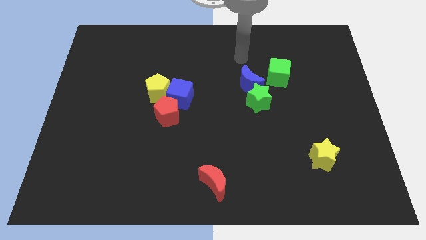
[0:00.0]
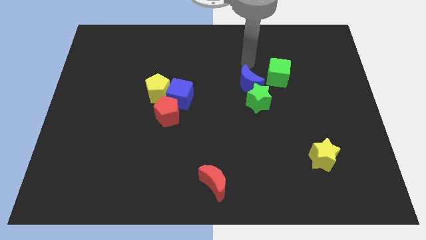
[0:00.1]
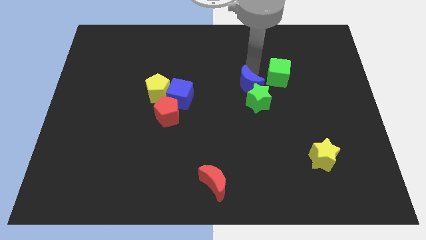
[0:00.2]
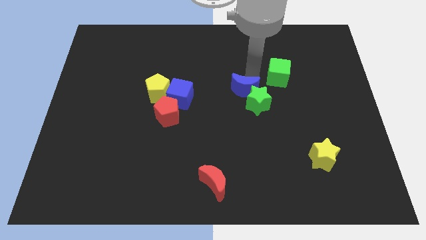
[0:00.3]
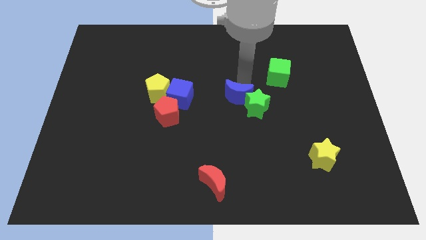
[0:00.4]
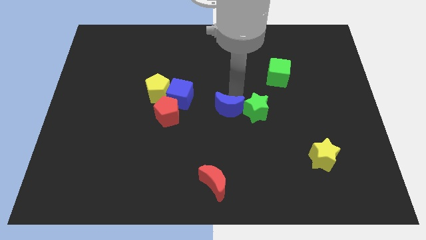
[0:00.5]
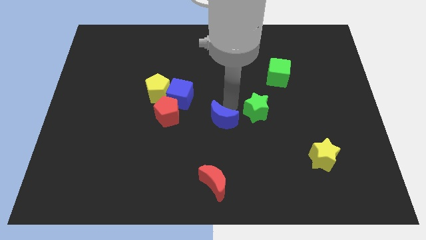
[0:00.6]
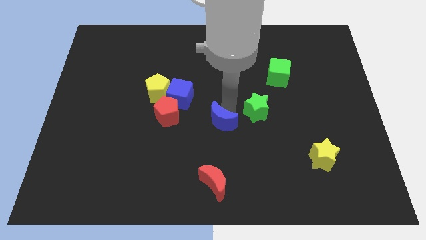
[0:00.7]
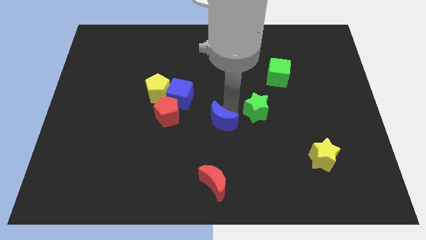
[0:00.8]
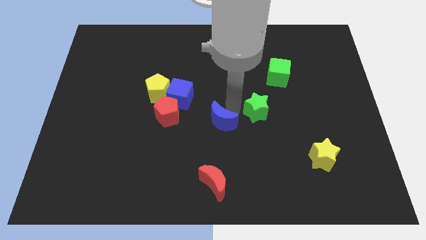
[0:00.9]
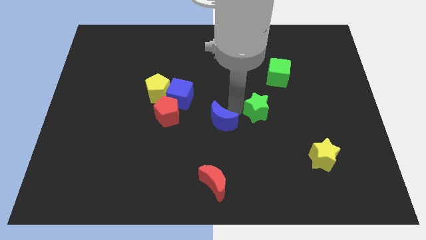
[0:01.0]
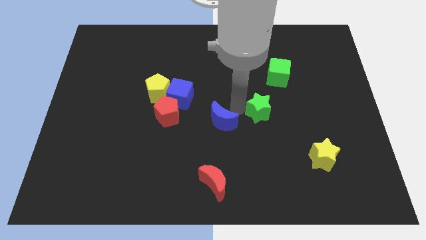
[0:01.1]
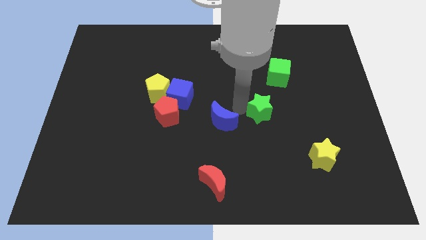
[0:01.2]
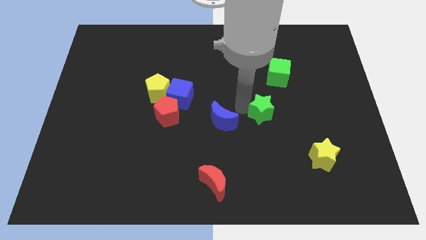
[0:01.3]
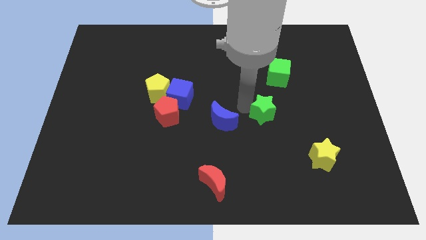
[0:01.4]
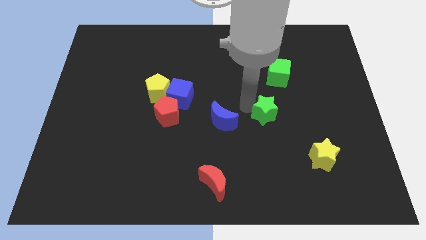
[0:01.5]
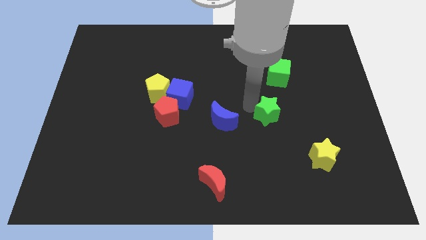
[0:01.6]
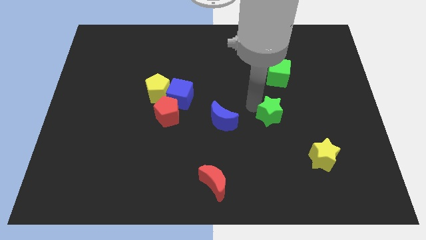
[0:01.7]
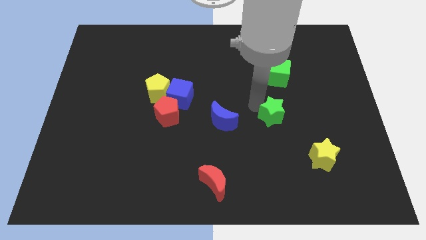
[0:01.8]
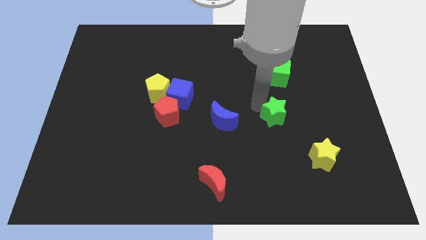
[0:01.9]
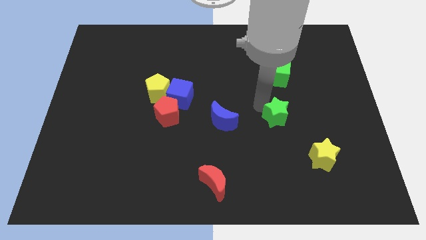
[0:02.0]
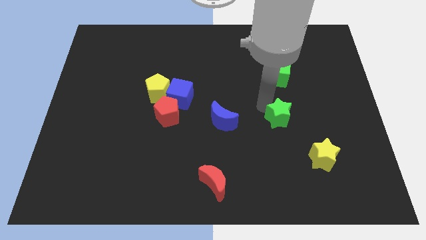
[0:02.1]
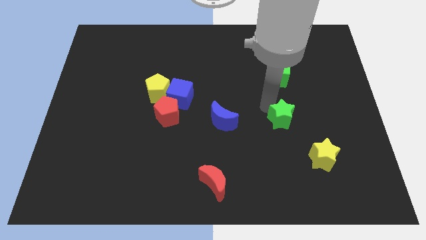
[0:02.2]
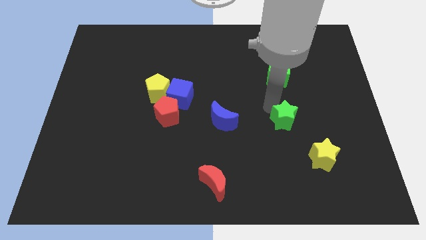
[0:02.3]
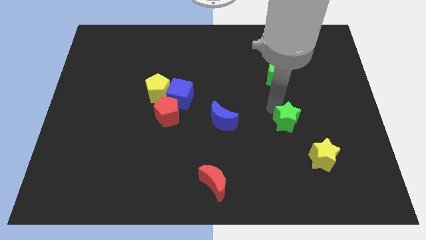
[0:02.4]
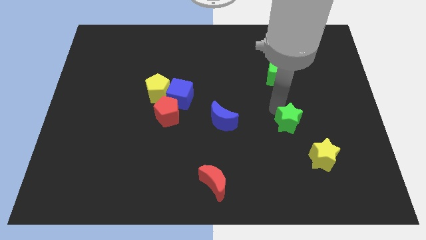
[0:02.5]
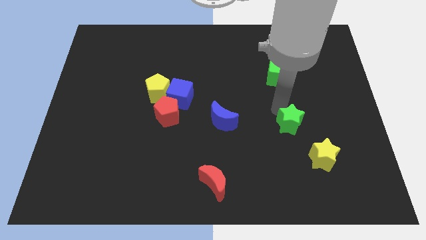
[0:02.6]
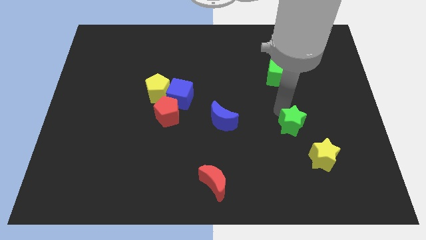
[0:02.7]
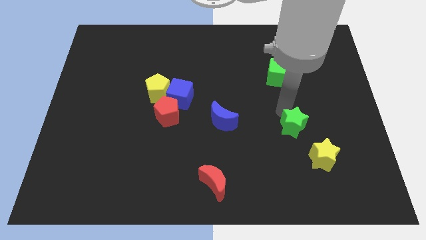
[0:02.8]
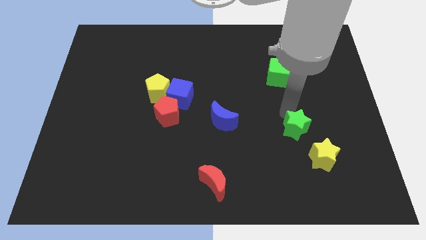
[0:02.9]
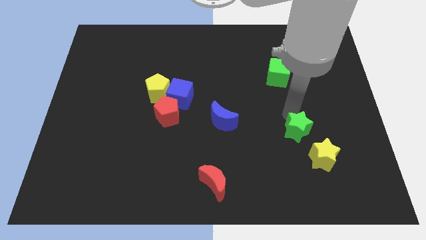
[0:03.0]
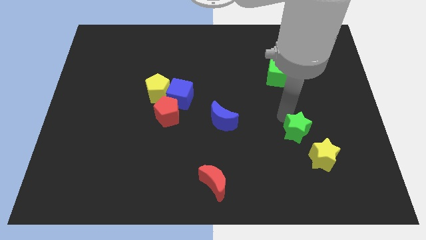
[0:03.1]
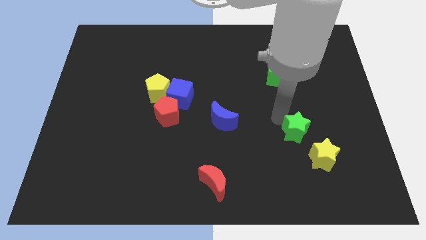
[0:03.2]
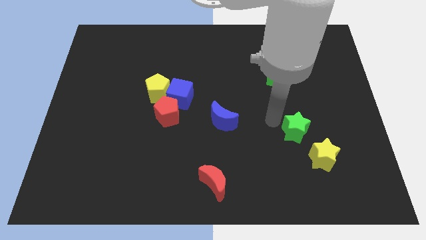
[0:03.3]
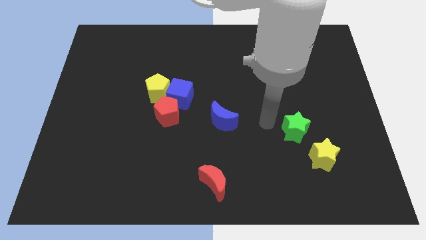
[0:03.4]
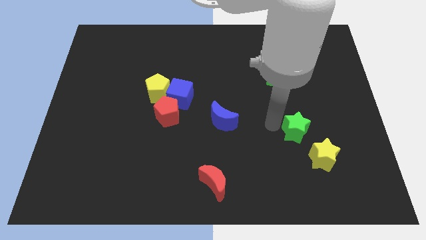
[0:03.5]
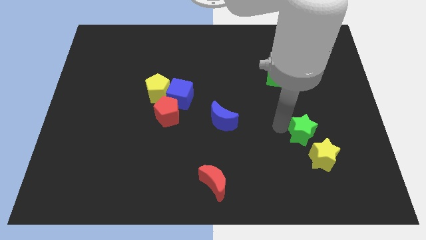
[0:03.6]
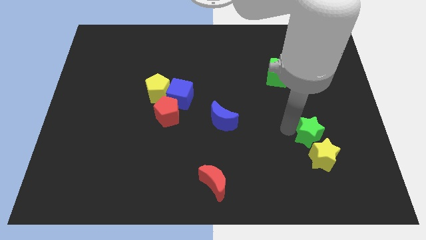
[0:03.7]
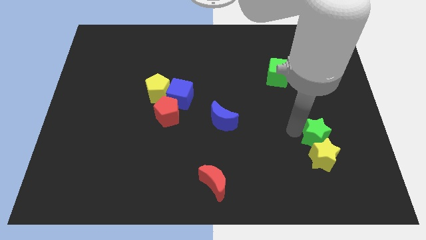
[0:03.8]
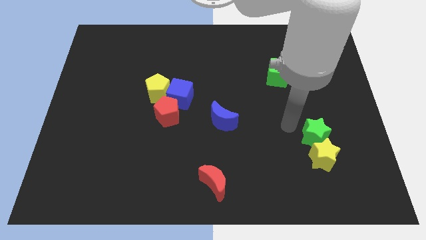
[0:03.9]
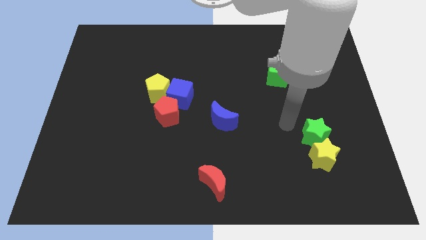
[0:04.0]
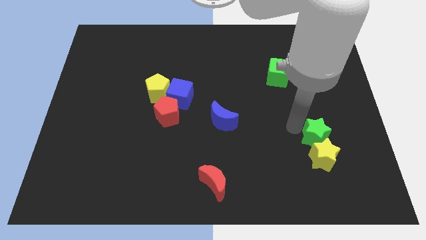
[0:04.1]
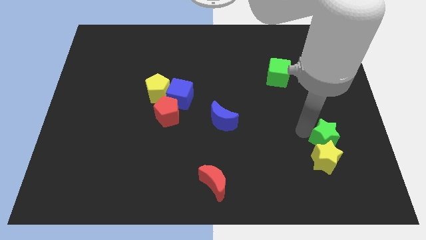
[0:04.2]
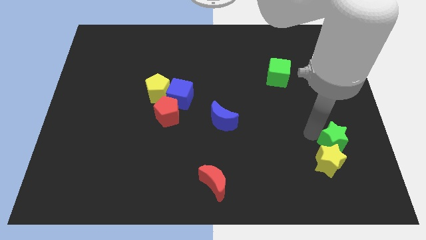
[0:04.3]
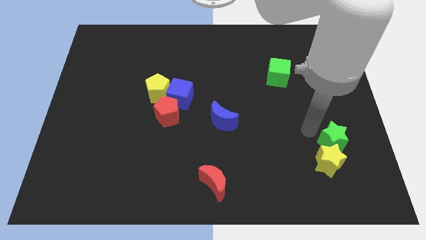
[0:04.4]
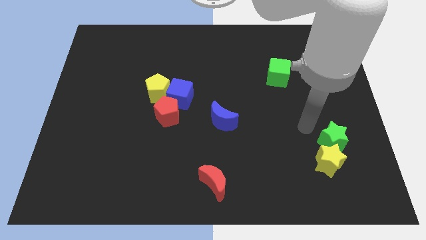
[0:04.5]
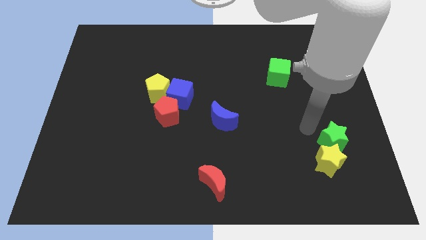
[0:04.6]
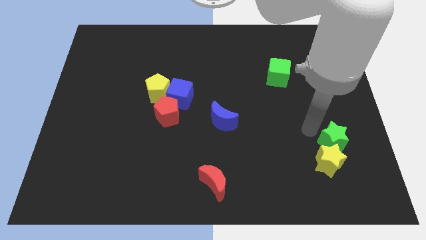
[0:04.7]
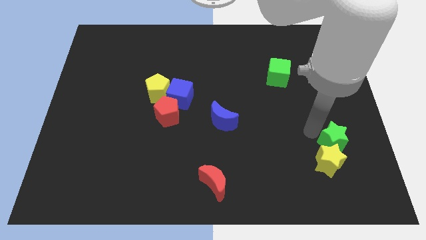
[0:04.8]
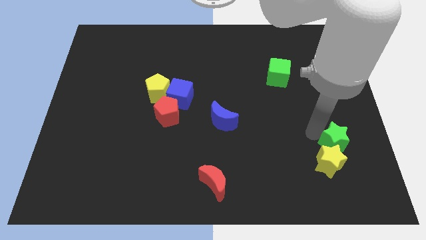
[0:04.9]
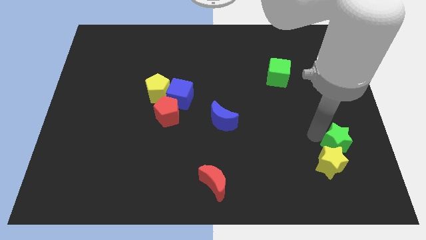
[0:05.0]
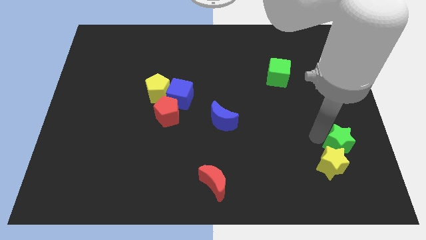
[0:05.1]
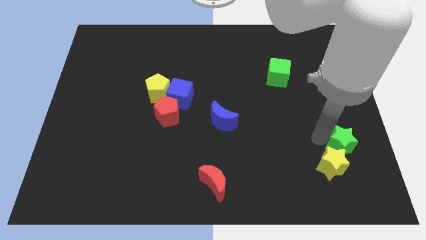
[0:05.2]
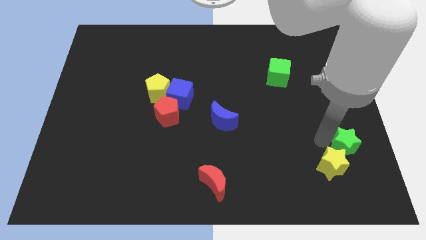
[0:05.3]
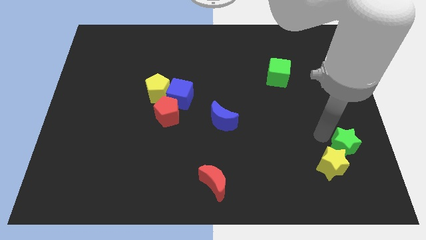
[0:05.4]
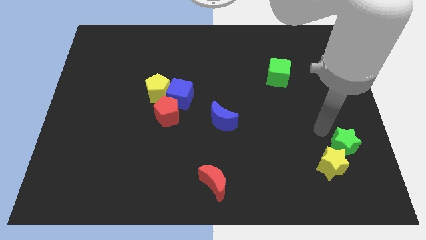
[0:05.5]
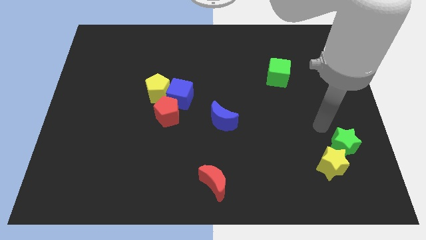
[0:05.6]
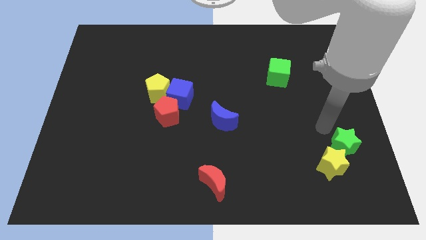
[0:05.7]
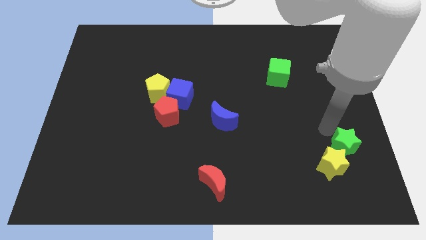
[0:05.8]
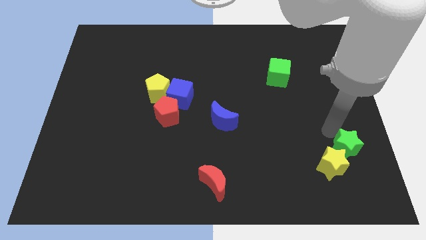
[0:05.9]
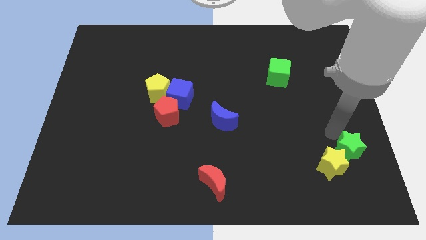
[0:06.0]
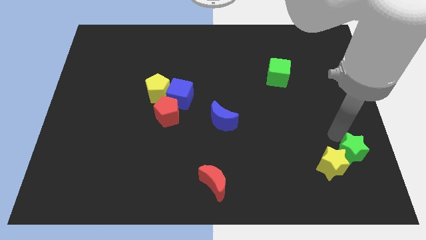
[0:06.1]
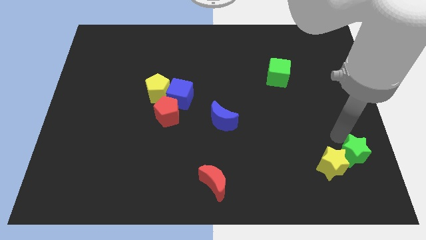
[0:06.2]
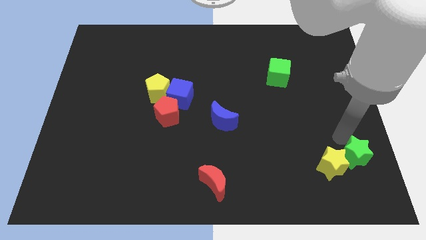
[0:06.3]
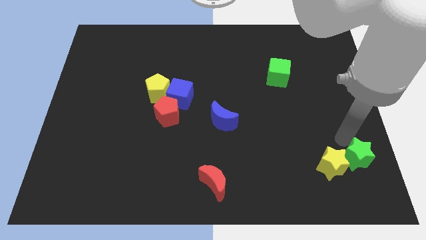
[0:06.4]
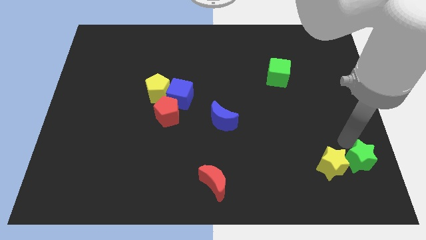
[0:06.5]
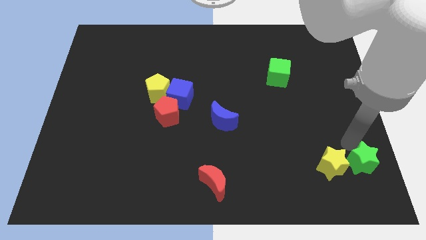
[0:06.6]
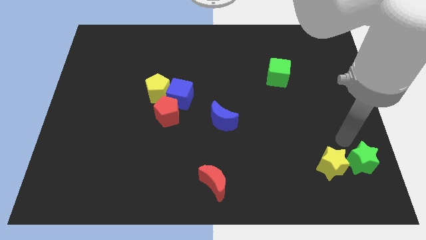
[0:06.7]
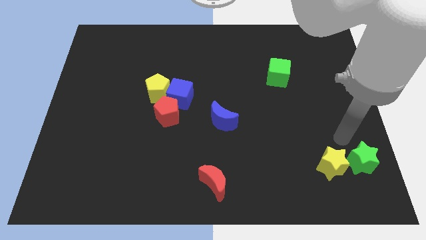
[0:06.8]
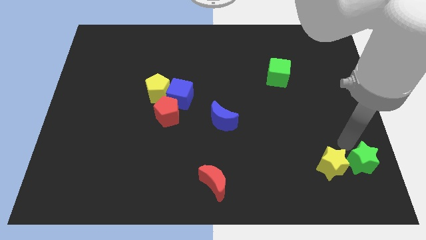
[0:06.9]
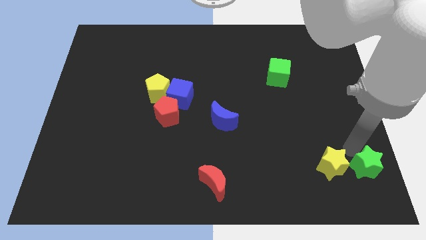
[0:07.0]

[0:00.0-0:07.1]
push the green star to the lower right corner
